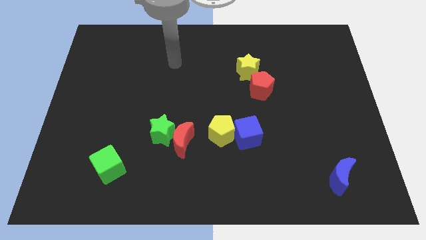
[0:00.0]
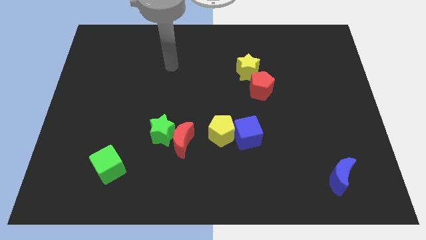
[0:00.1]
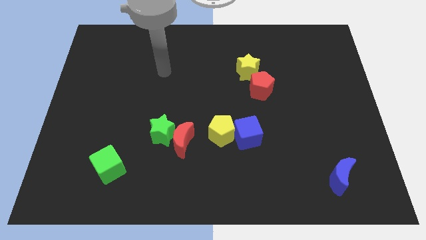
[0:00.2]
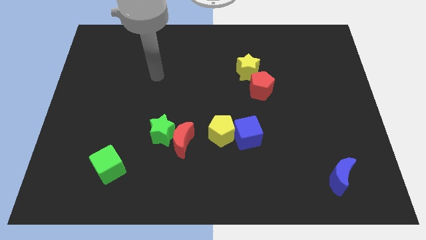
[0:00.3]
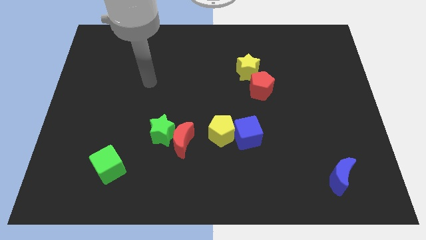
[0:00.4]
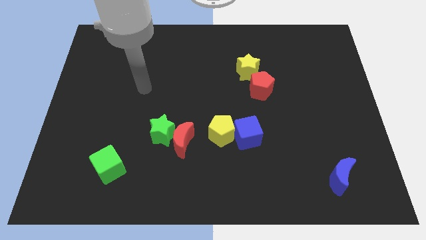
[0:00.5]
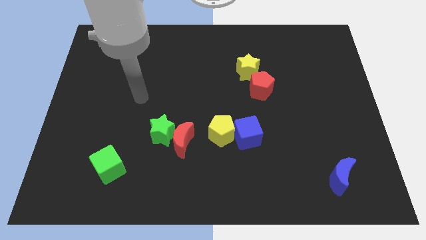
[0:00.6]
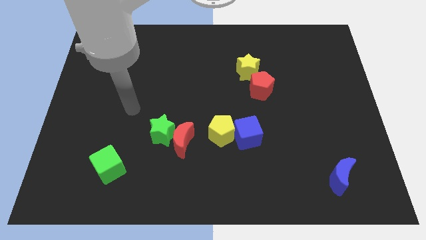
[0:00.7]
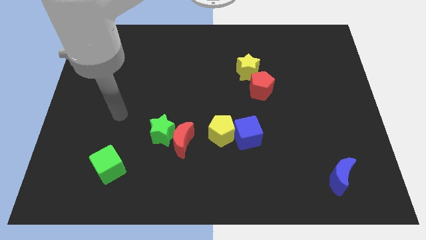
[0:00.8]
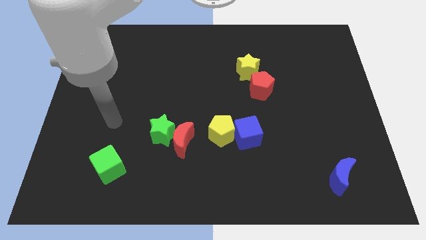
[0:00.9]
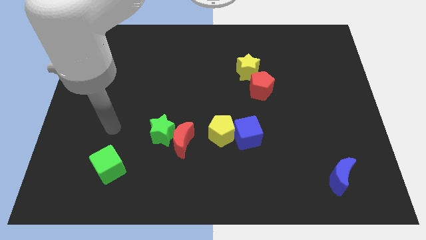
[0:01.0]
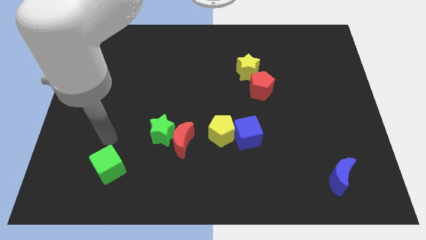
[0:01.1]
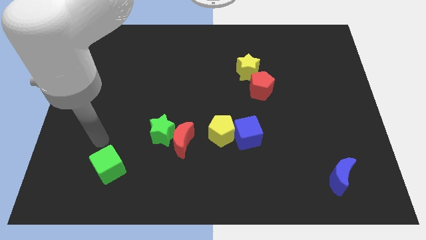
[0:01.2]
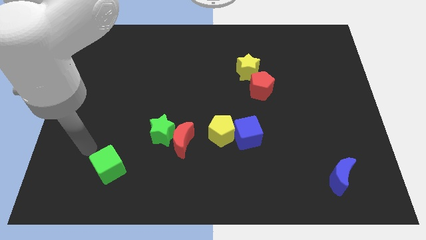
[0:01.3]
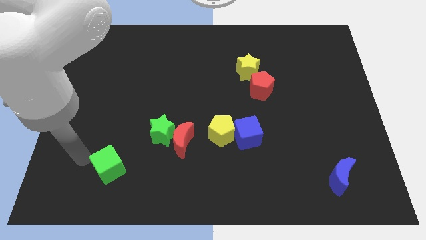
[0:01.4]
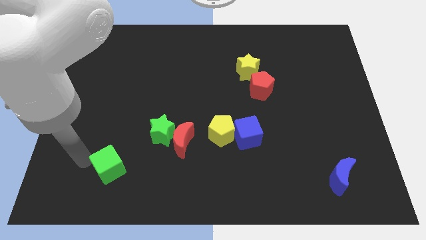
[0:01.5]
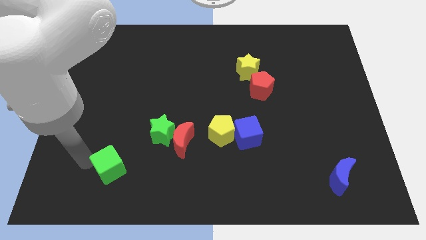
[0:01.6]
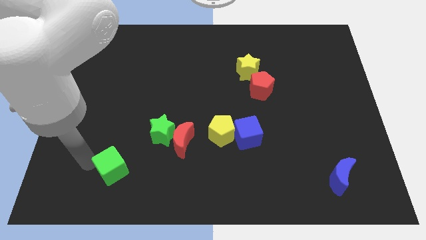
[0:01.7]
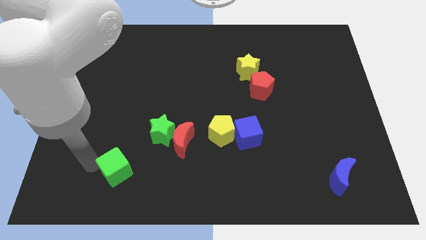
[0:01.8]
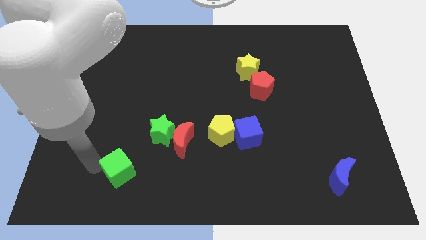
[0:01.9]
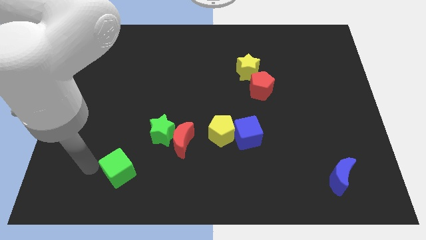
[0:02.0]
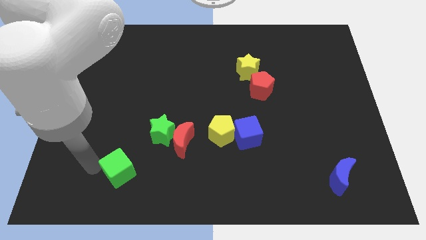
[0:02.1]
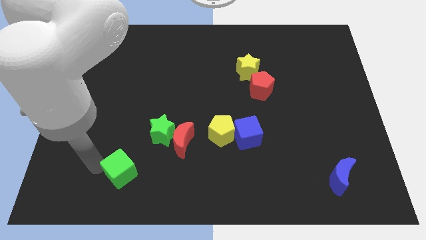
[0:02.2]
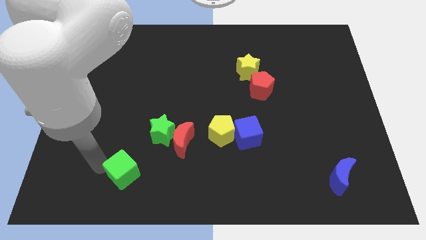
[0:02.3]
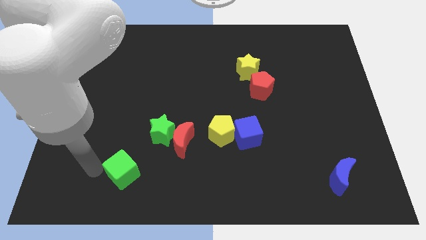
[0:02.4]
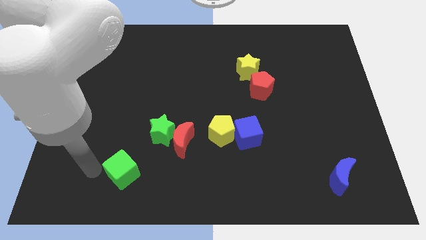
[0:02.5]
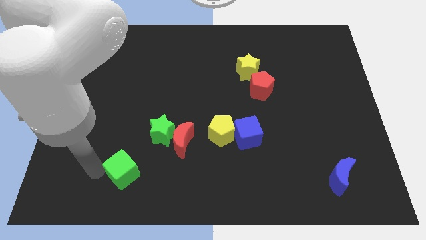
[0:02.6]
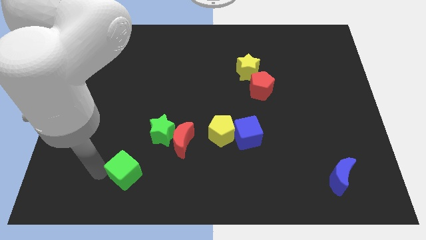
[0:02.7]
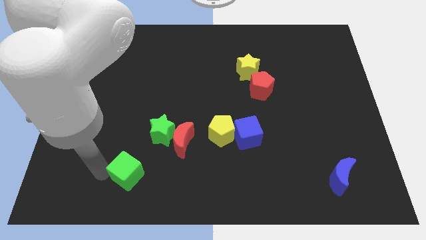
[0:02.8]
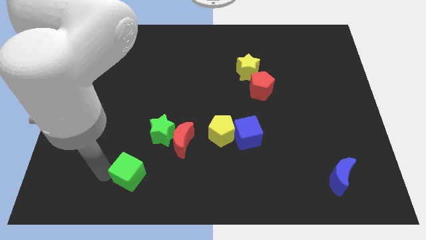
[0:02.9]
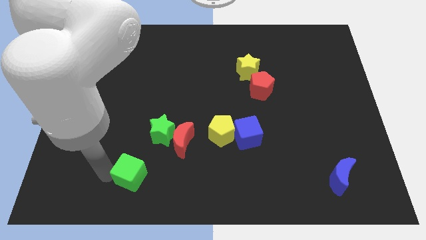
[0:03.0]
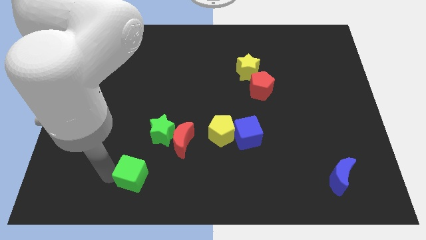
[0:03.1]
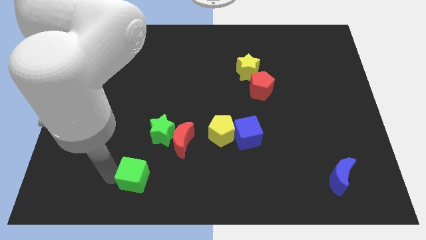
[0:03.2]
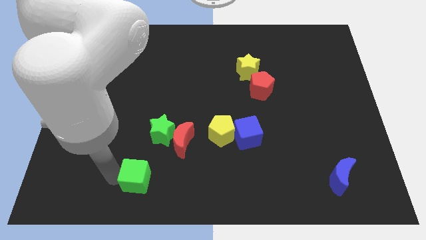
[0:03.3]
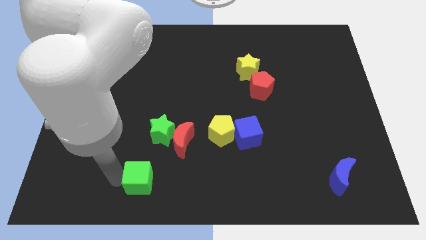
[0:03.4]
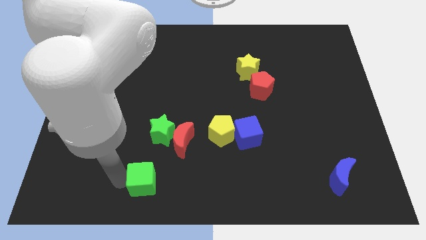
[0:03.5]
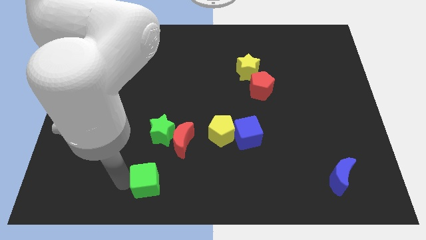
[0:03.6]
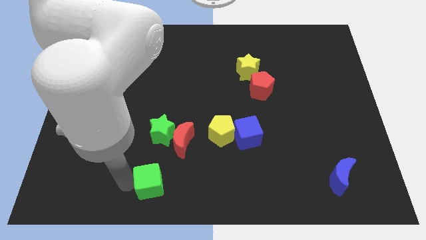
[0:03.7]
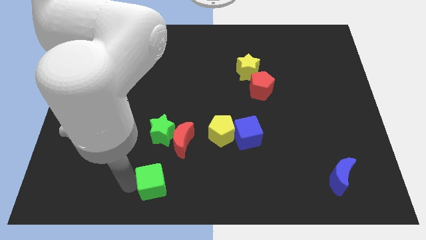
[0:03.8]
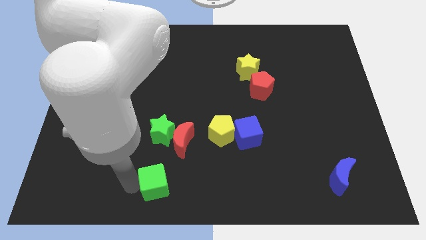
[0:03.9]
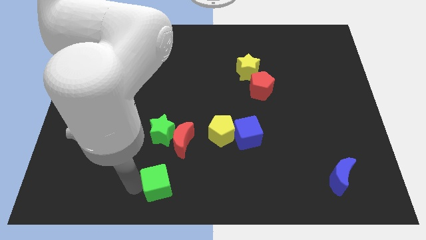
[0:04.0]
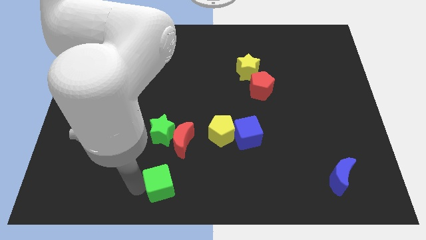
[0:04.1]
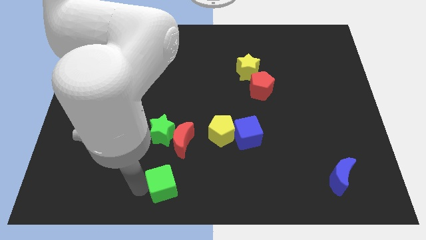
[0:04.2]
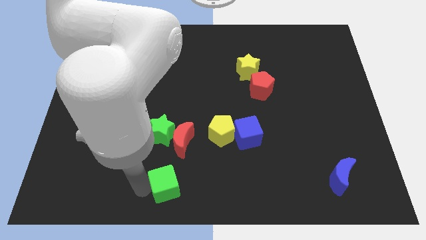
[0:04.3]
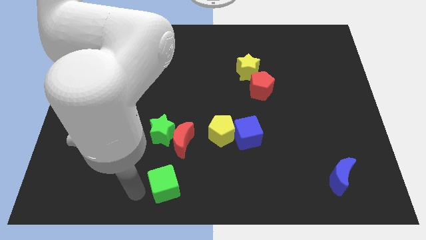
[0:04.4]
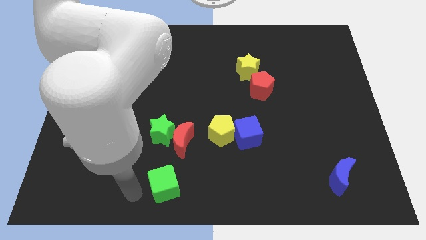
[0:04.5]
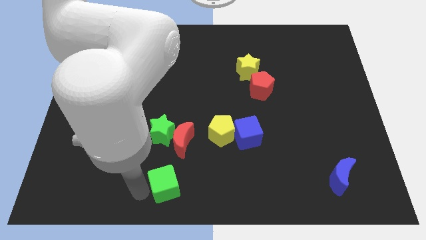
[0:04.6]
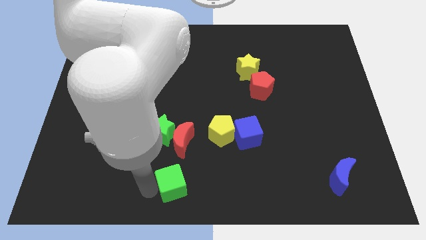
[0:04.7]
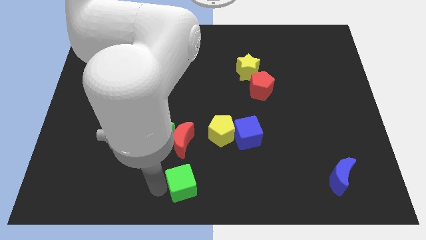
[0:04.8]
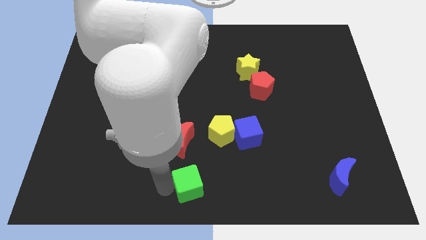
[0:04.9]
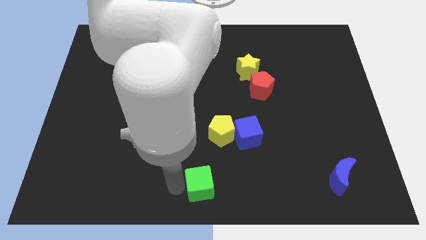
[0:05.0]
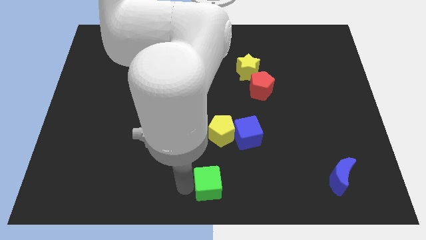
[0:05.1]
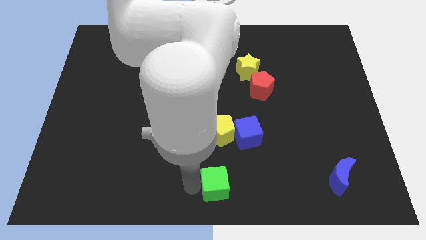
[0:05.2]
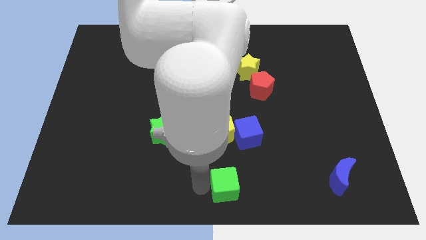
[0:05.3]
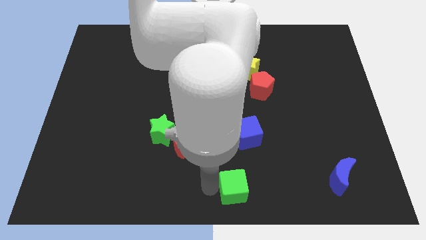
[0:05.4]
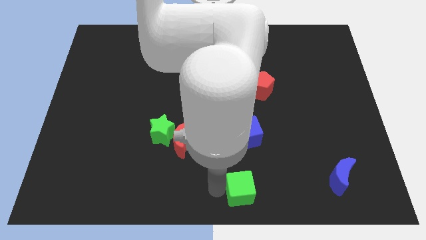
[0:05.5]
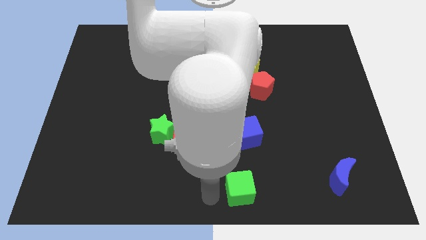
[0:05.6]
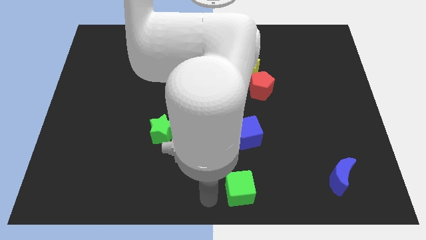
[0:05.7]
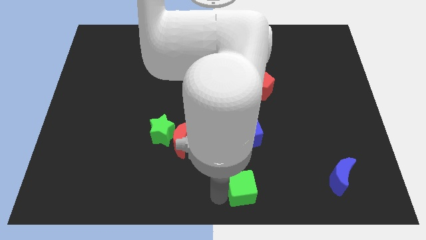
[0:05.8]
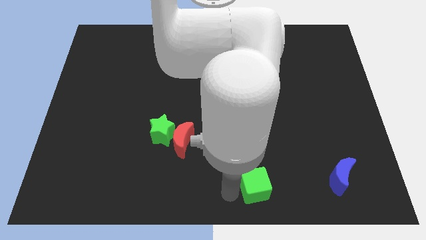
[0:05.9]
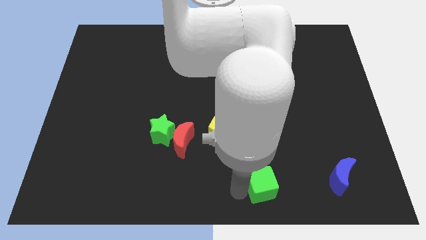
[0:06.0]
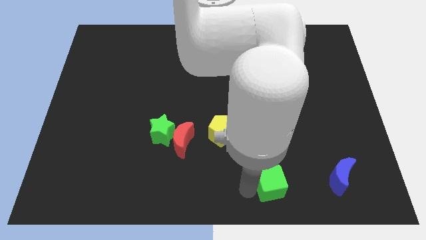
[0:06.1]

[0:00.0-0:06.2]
move the green cube to the left of the blue moon
